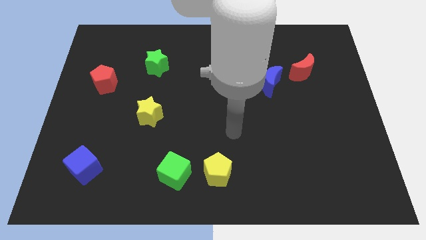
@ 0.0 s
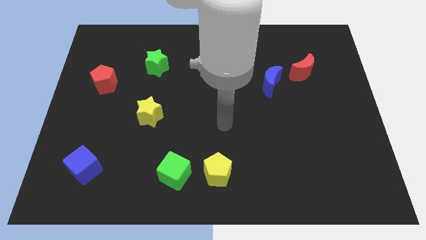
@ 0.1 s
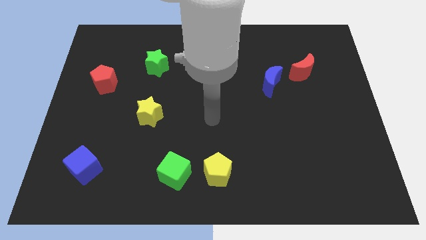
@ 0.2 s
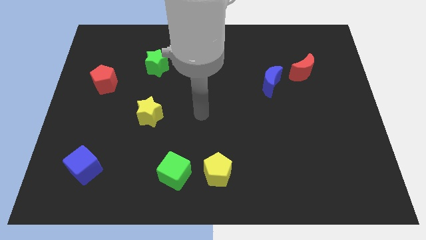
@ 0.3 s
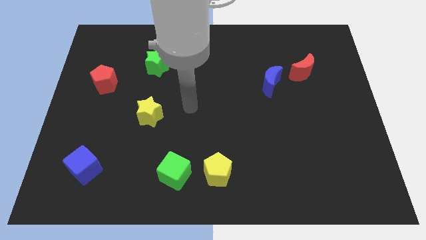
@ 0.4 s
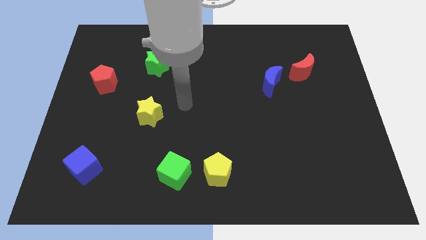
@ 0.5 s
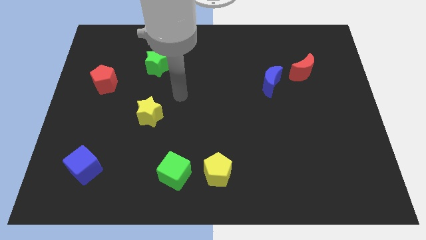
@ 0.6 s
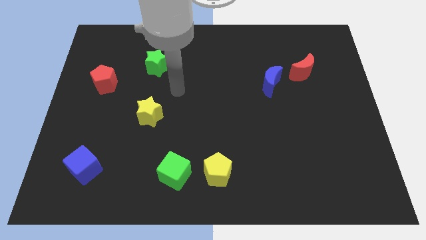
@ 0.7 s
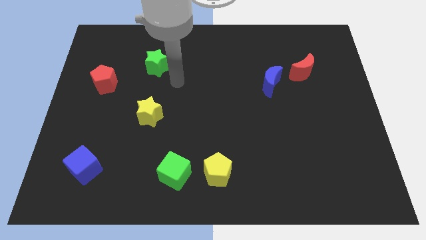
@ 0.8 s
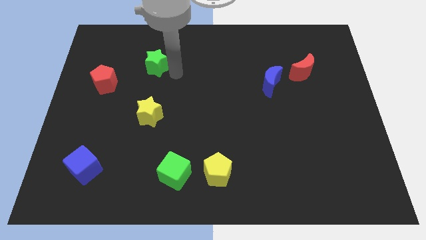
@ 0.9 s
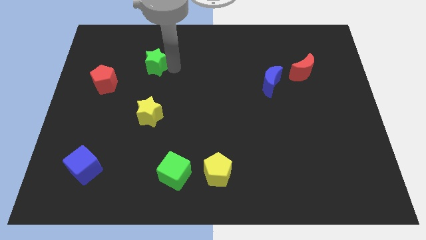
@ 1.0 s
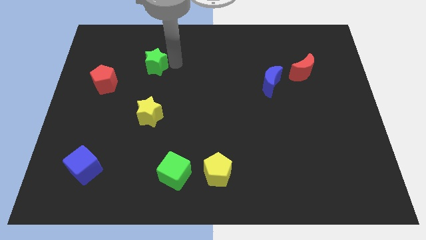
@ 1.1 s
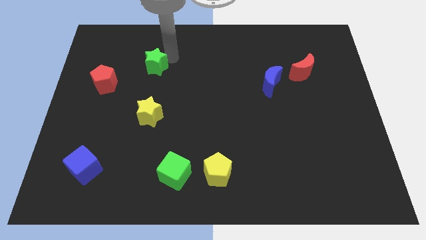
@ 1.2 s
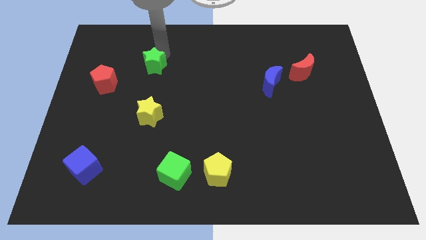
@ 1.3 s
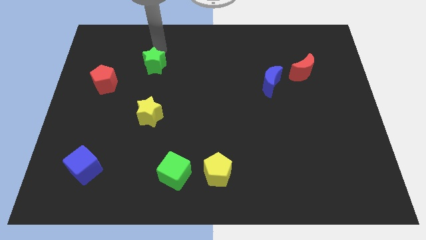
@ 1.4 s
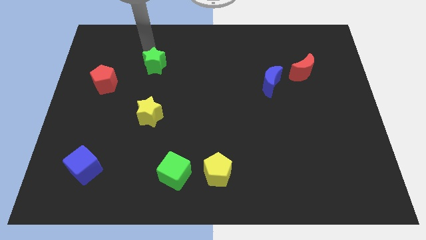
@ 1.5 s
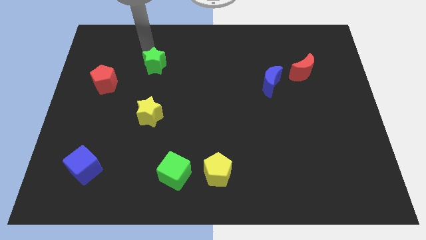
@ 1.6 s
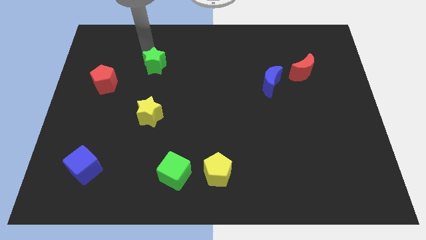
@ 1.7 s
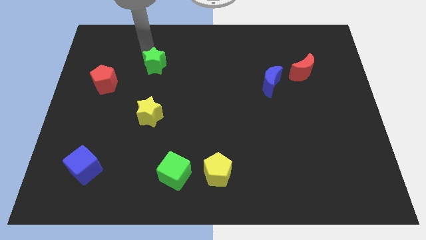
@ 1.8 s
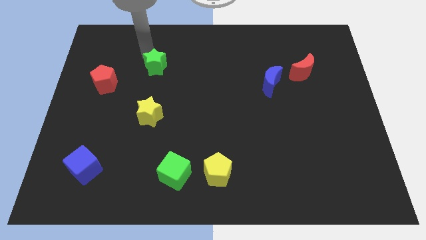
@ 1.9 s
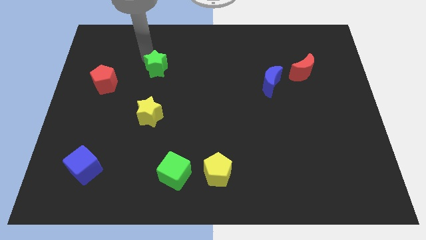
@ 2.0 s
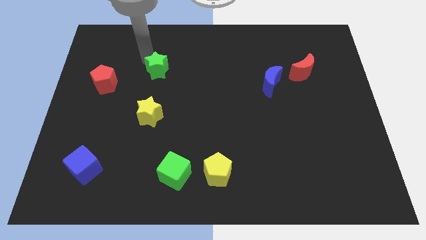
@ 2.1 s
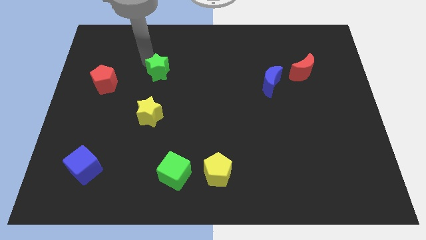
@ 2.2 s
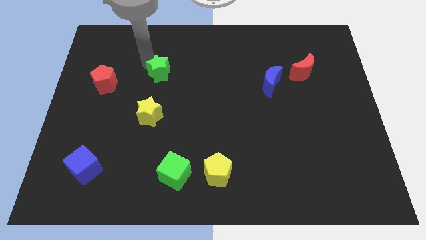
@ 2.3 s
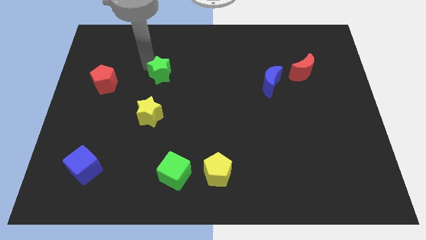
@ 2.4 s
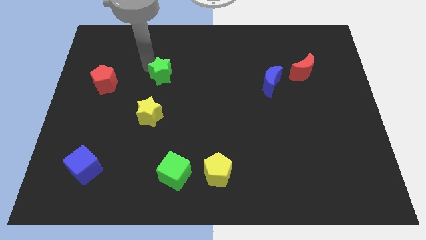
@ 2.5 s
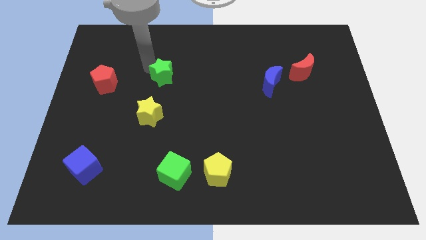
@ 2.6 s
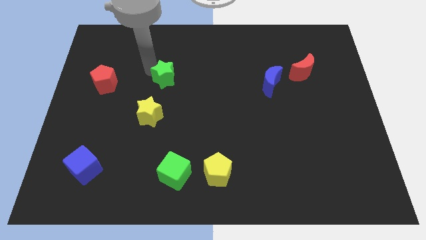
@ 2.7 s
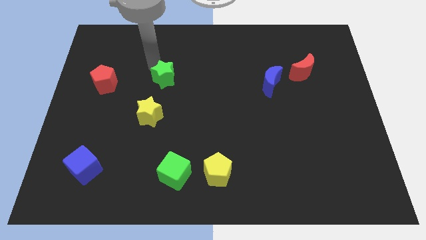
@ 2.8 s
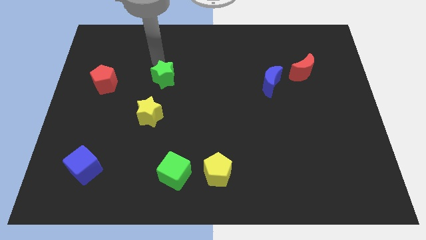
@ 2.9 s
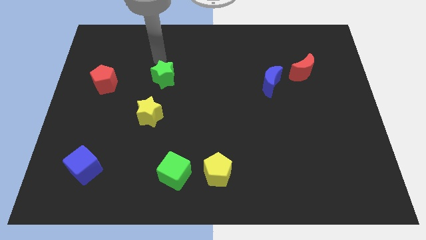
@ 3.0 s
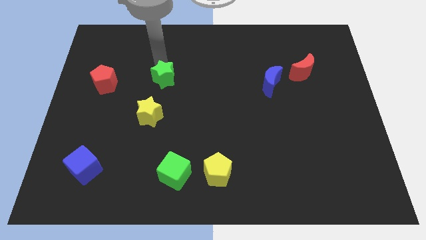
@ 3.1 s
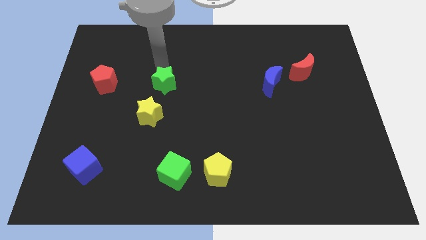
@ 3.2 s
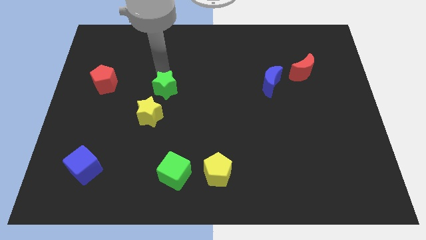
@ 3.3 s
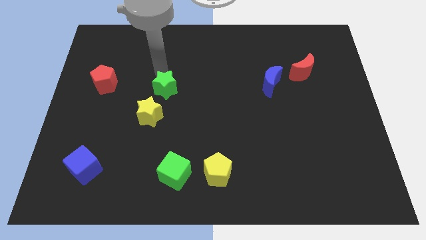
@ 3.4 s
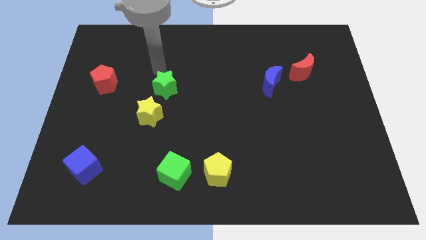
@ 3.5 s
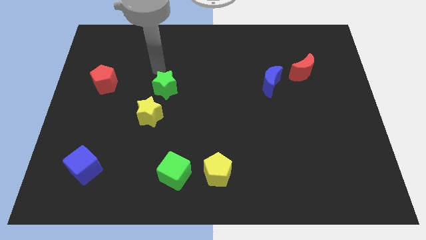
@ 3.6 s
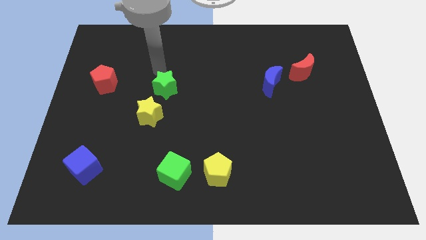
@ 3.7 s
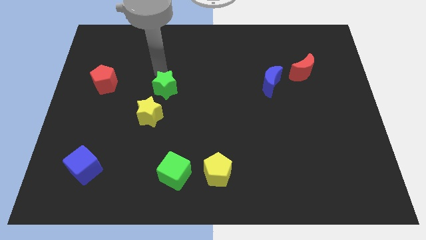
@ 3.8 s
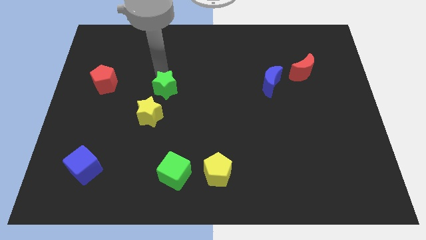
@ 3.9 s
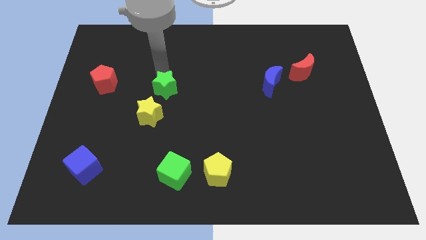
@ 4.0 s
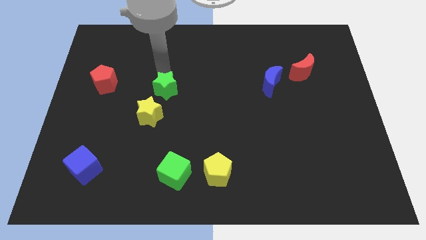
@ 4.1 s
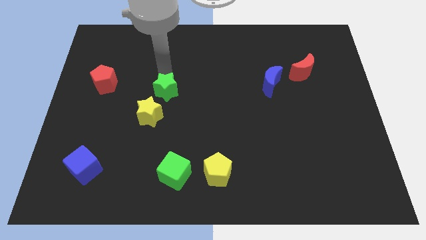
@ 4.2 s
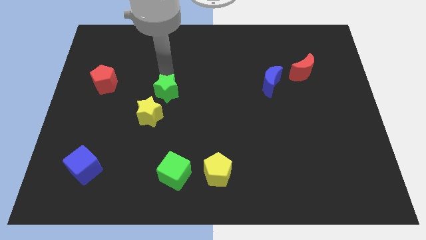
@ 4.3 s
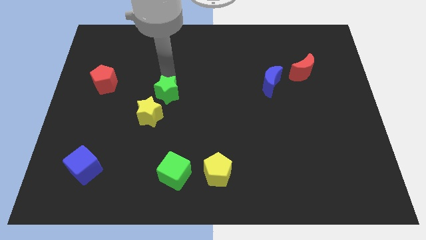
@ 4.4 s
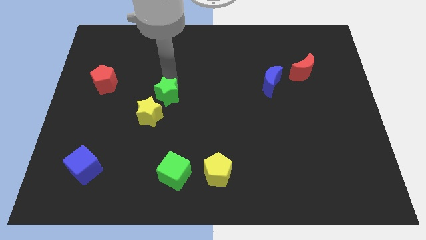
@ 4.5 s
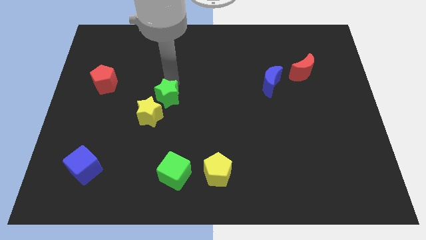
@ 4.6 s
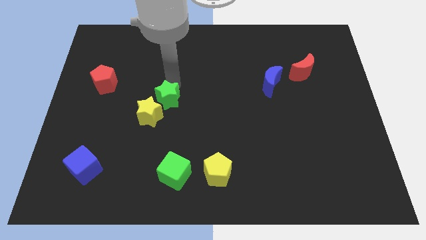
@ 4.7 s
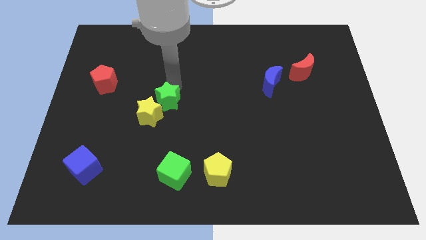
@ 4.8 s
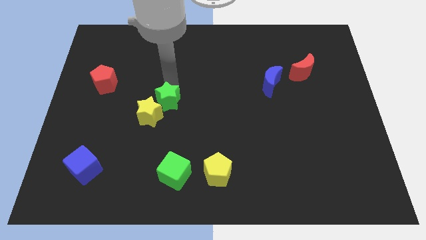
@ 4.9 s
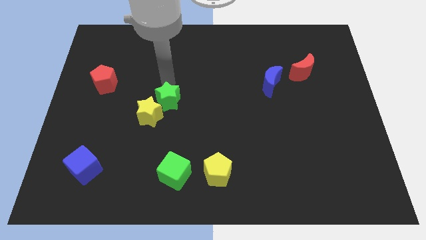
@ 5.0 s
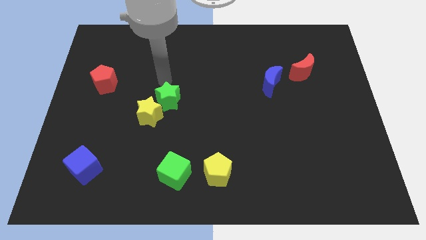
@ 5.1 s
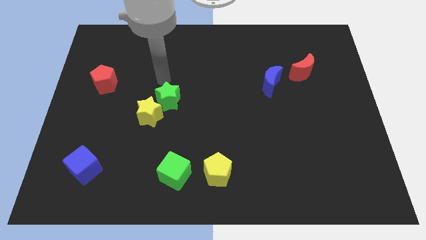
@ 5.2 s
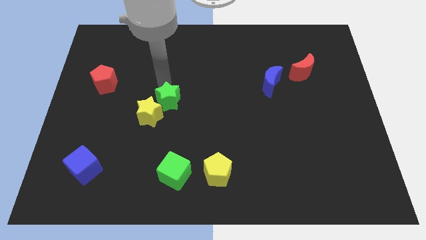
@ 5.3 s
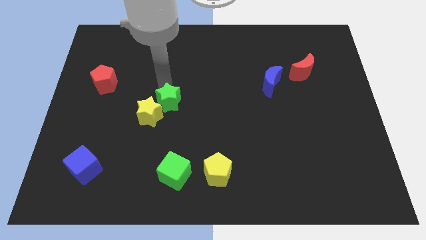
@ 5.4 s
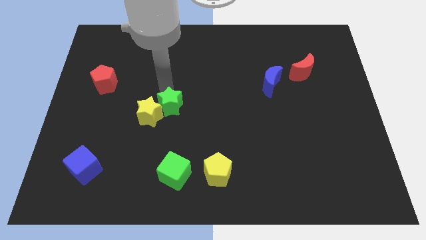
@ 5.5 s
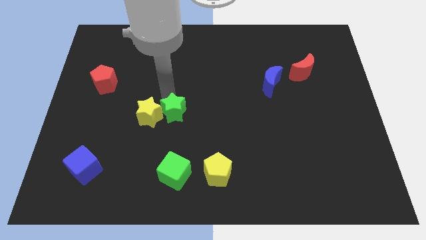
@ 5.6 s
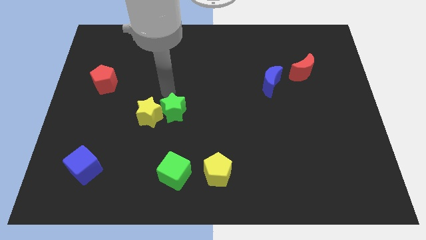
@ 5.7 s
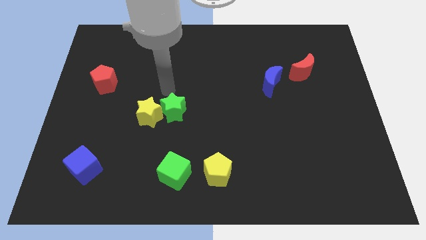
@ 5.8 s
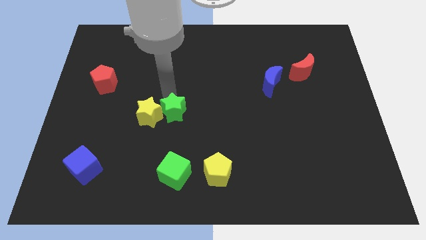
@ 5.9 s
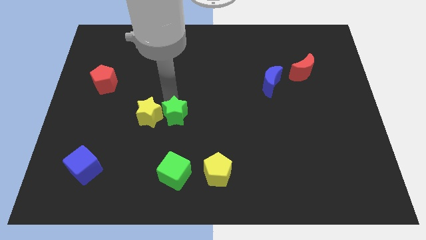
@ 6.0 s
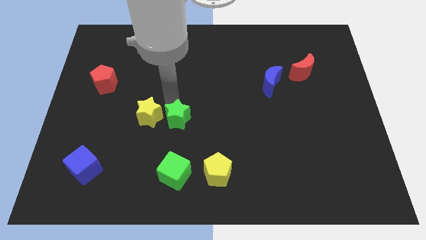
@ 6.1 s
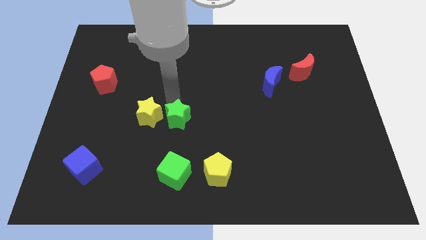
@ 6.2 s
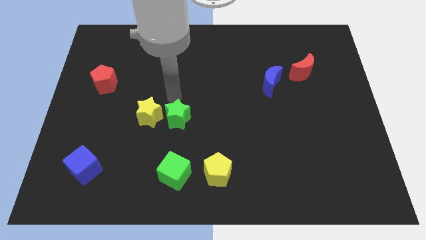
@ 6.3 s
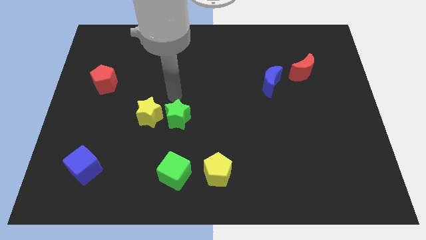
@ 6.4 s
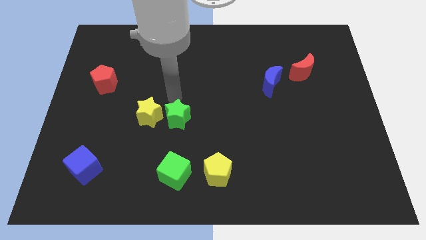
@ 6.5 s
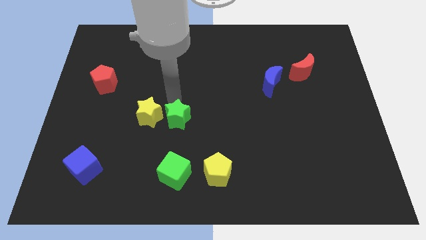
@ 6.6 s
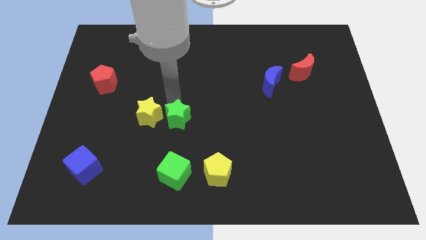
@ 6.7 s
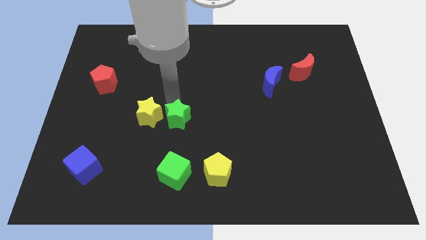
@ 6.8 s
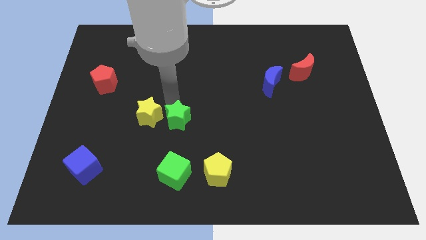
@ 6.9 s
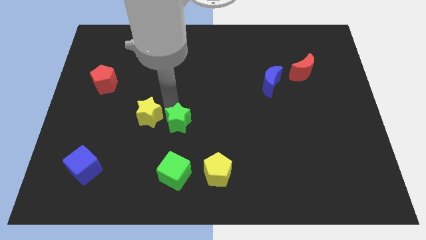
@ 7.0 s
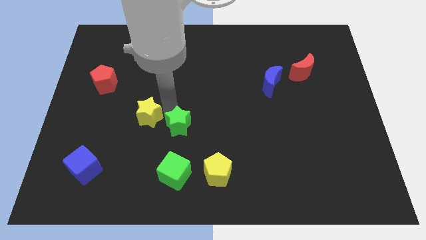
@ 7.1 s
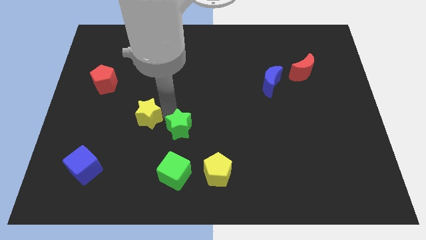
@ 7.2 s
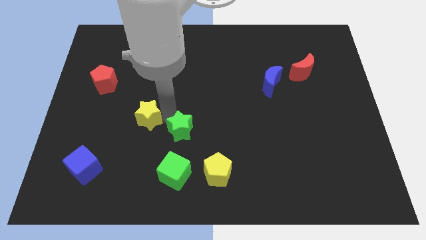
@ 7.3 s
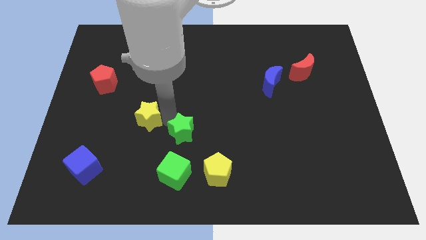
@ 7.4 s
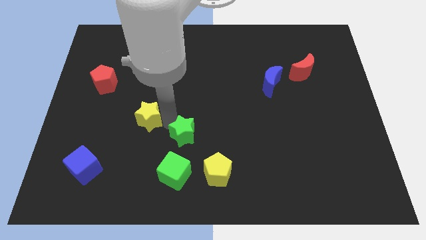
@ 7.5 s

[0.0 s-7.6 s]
move the green star diagonally up and to the left of the yellow pentagon
